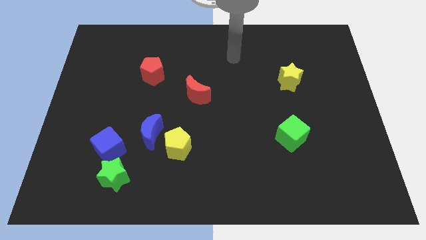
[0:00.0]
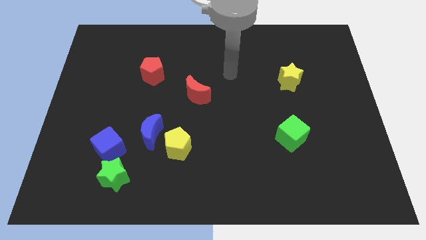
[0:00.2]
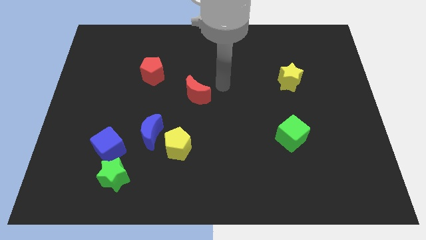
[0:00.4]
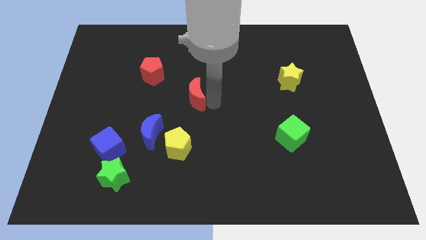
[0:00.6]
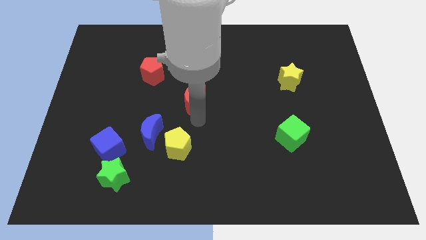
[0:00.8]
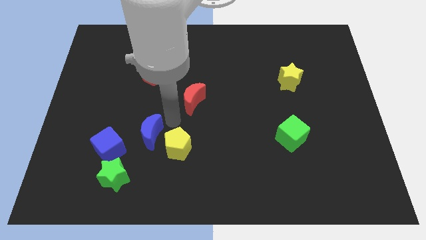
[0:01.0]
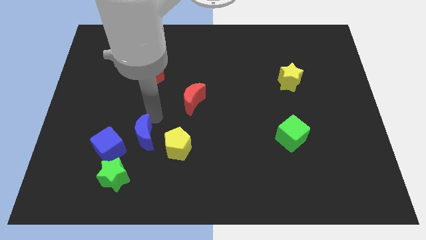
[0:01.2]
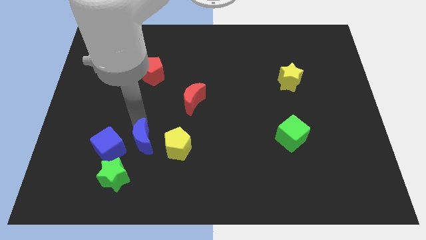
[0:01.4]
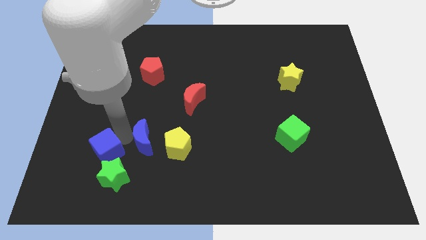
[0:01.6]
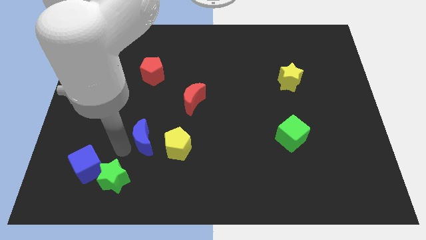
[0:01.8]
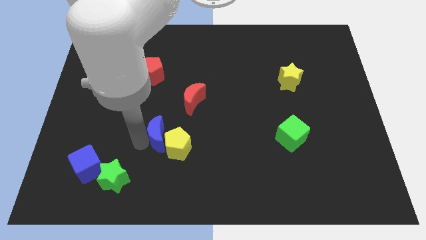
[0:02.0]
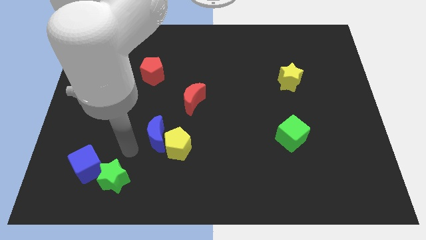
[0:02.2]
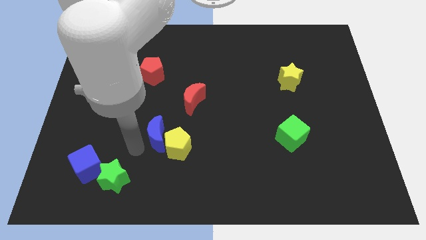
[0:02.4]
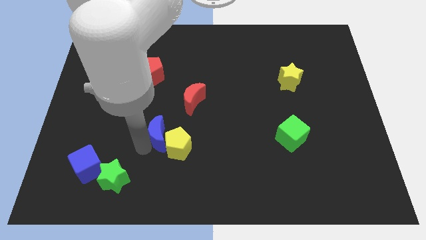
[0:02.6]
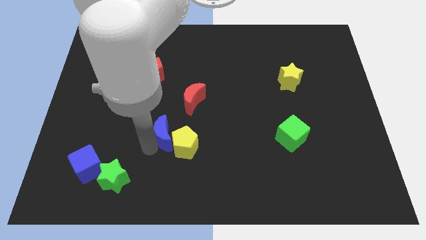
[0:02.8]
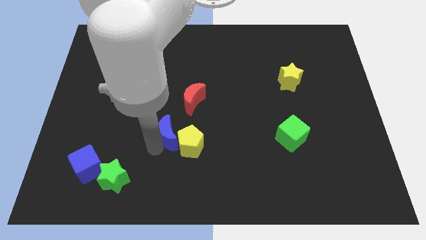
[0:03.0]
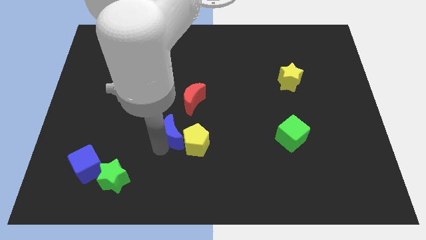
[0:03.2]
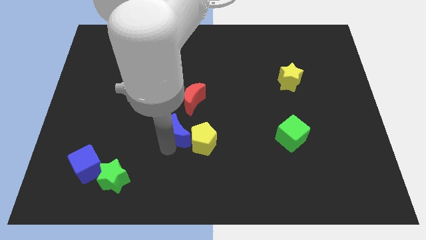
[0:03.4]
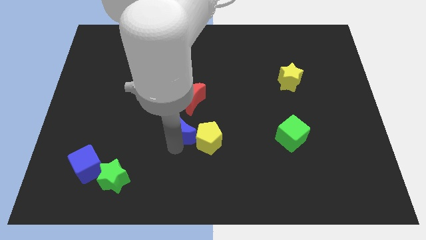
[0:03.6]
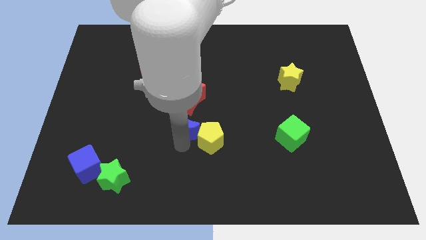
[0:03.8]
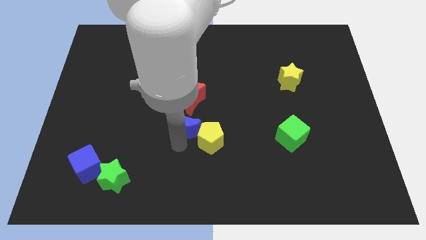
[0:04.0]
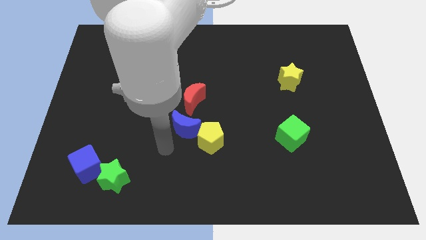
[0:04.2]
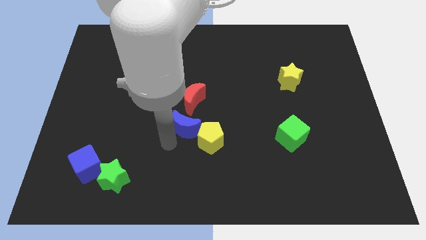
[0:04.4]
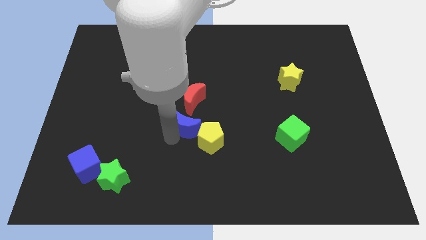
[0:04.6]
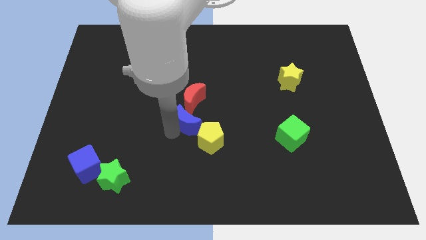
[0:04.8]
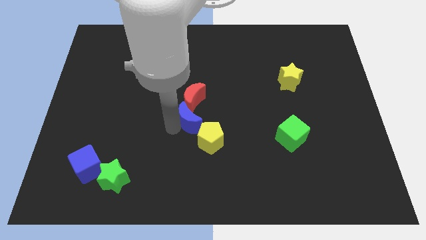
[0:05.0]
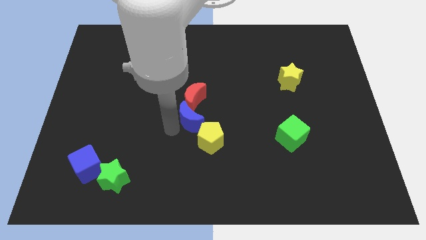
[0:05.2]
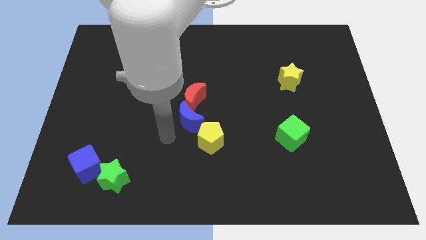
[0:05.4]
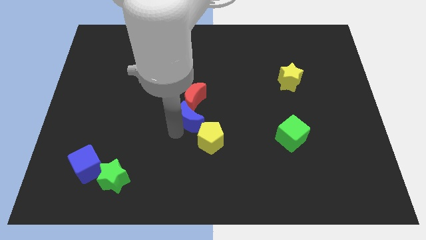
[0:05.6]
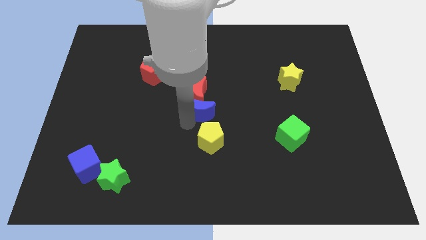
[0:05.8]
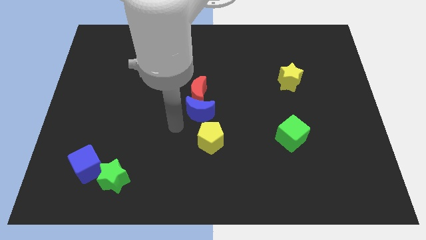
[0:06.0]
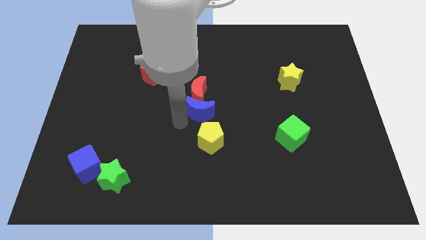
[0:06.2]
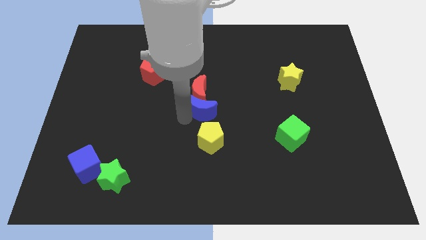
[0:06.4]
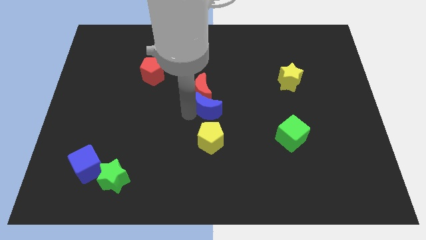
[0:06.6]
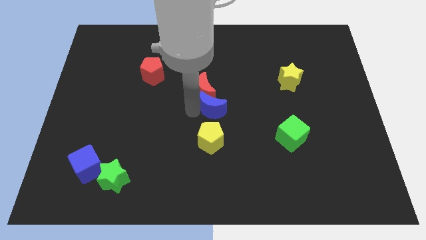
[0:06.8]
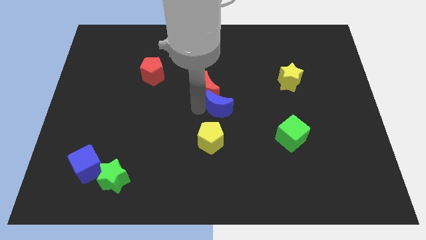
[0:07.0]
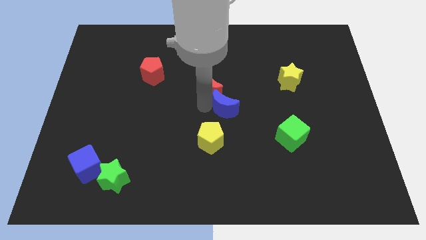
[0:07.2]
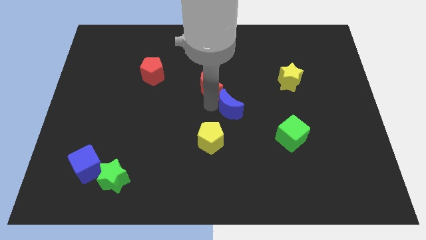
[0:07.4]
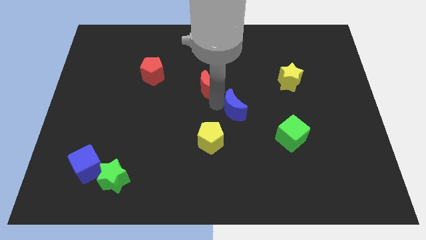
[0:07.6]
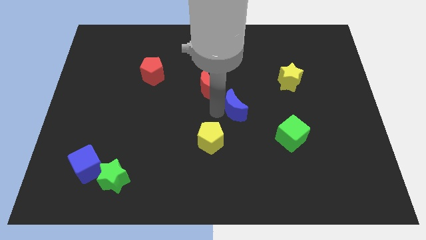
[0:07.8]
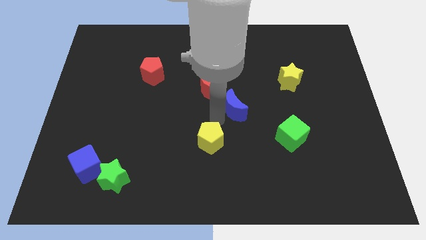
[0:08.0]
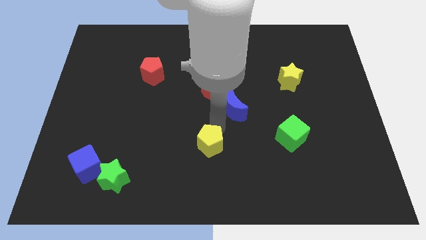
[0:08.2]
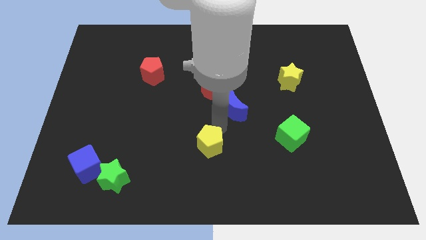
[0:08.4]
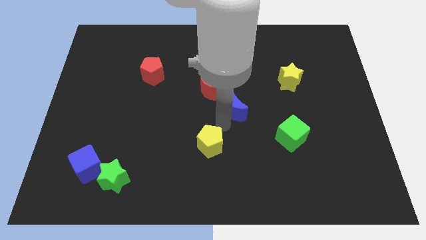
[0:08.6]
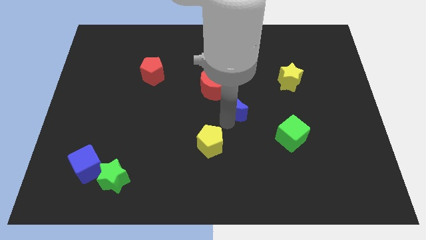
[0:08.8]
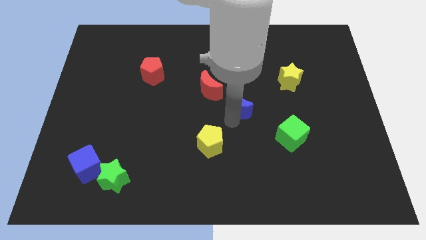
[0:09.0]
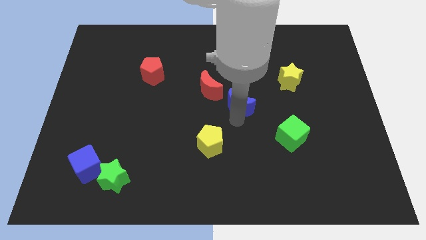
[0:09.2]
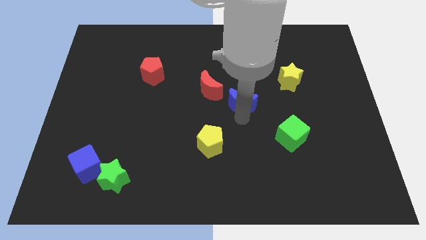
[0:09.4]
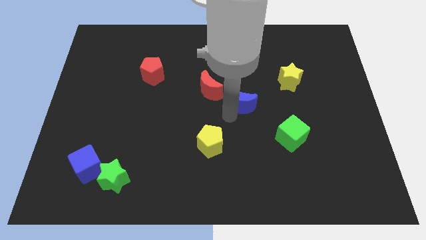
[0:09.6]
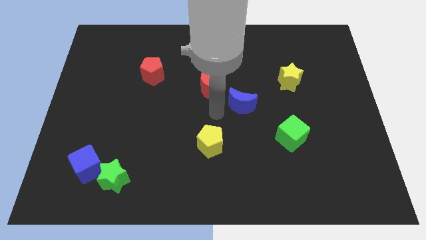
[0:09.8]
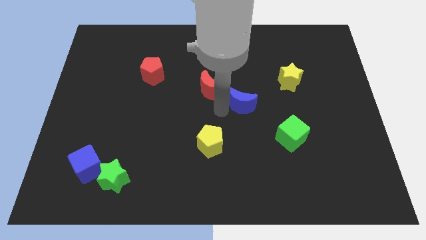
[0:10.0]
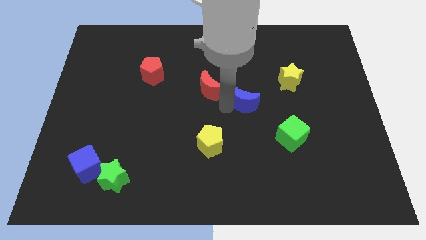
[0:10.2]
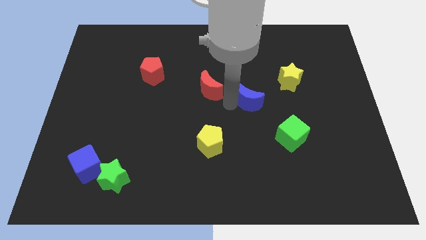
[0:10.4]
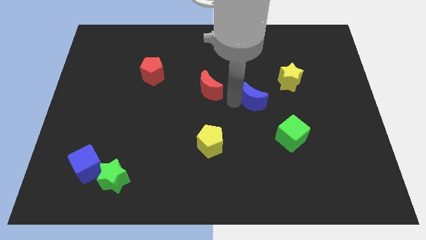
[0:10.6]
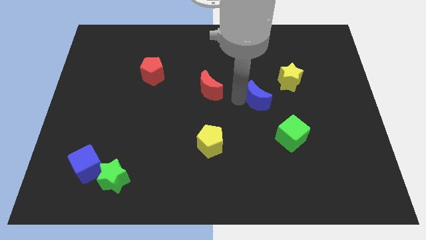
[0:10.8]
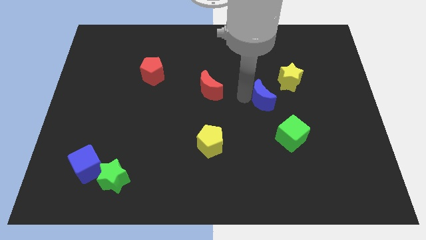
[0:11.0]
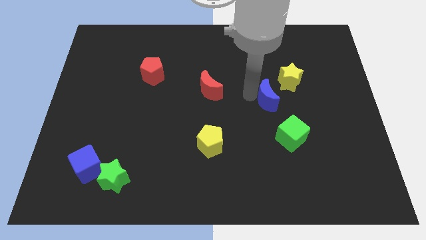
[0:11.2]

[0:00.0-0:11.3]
move the blue moon above the green cube

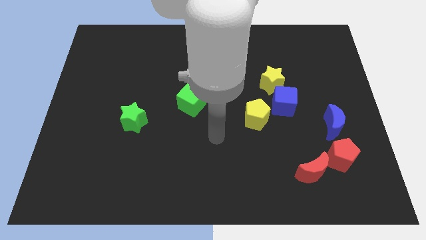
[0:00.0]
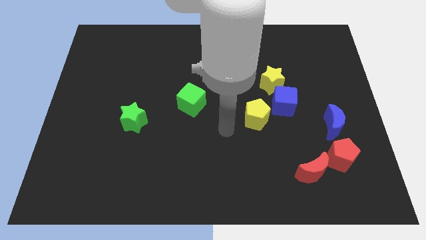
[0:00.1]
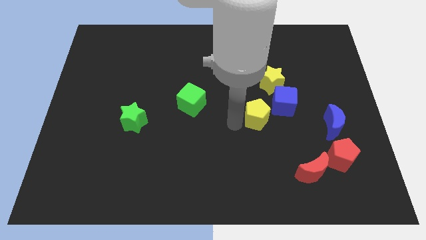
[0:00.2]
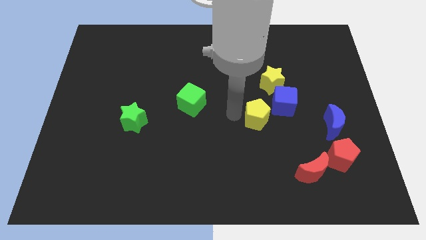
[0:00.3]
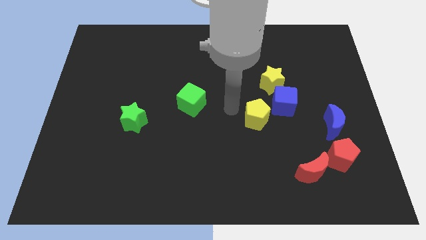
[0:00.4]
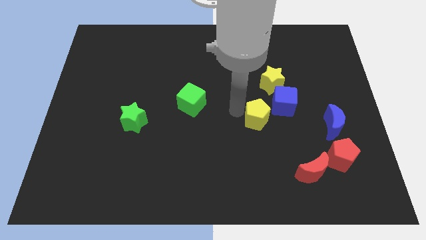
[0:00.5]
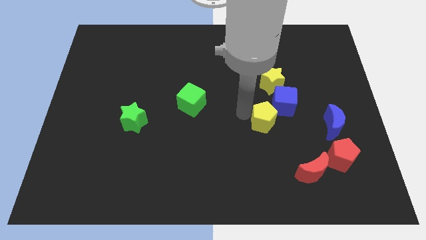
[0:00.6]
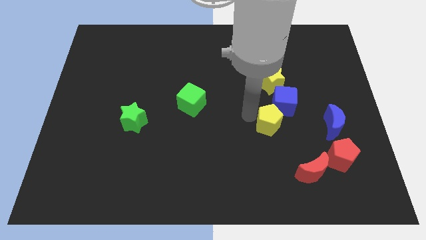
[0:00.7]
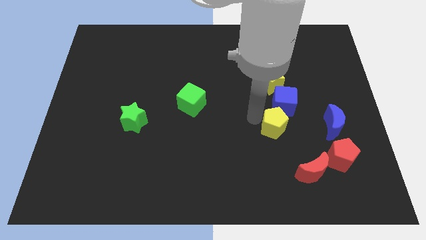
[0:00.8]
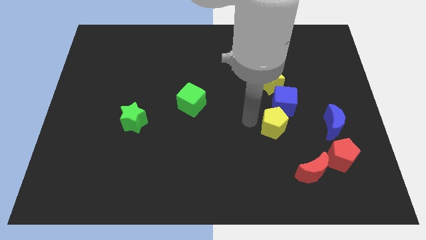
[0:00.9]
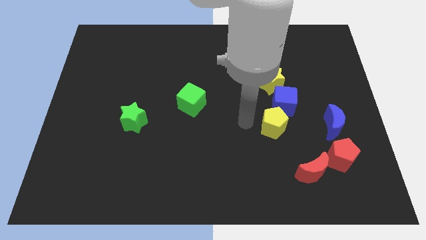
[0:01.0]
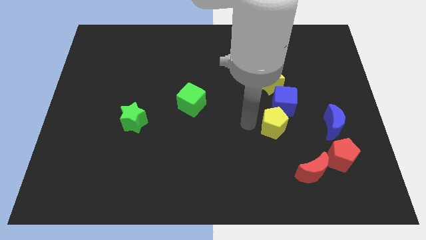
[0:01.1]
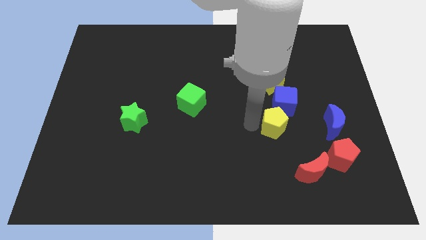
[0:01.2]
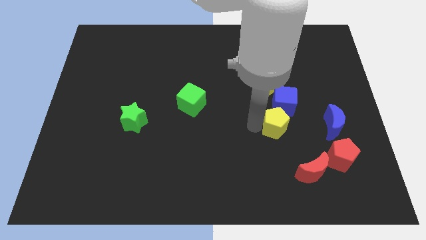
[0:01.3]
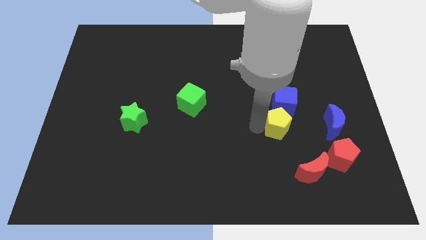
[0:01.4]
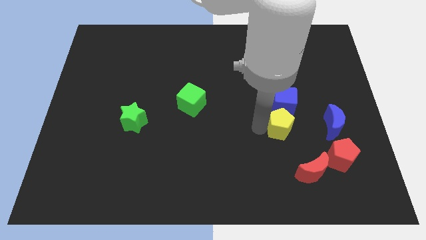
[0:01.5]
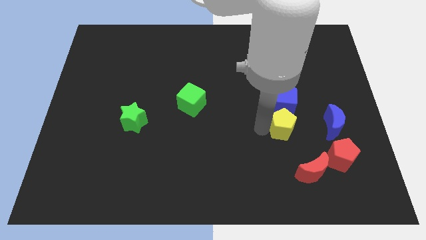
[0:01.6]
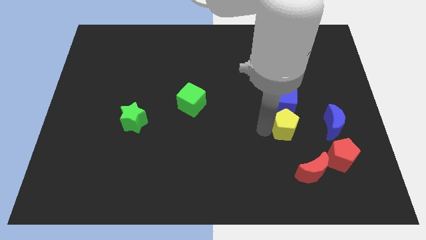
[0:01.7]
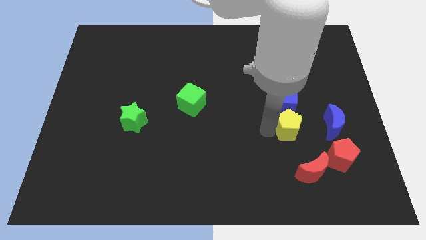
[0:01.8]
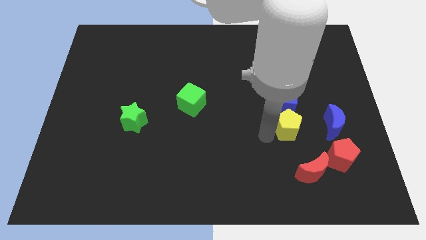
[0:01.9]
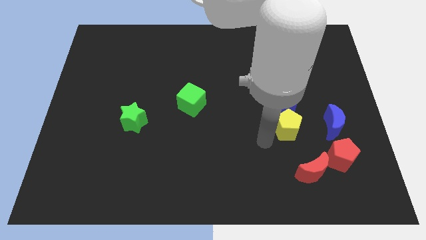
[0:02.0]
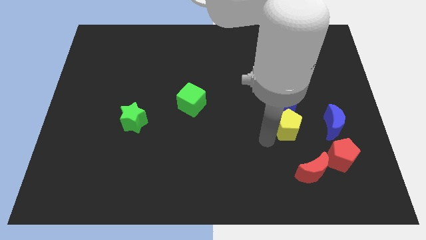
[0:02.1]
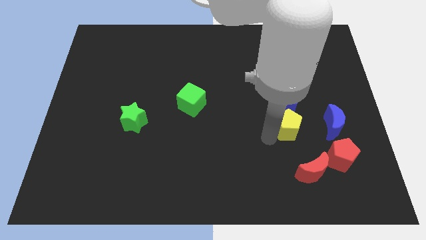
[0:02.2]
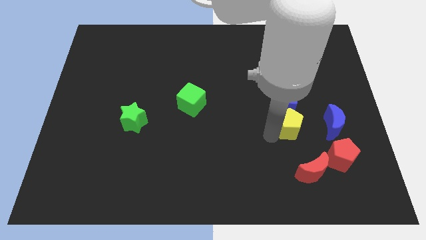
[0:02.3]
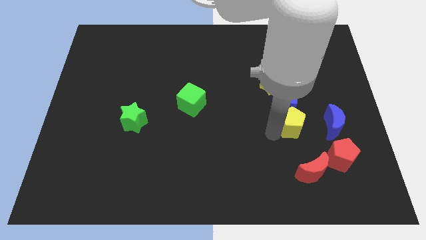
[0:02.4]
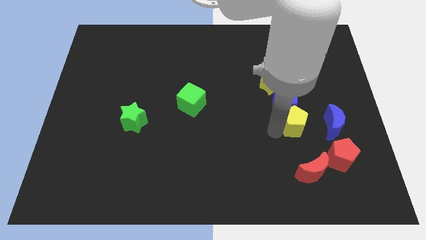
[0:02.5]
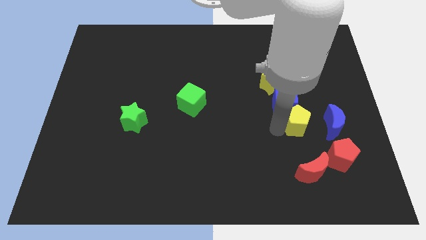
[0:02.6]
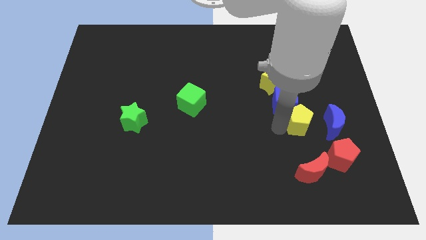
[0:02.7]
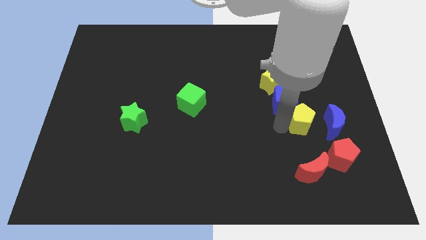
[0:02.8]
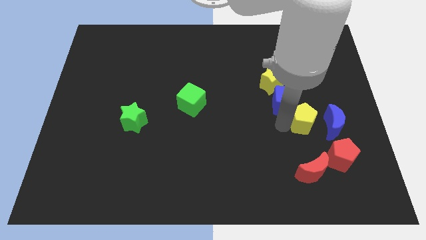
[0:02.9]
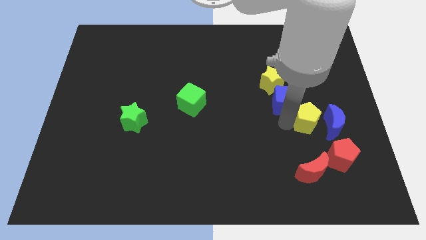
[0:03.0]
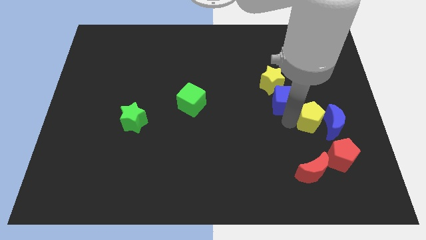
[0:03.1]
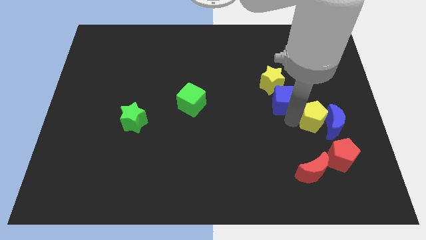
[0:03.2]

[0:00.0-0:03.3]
put the yellow pentagon above the red pentagon
